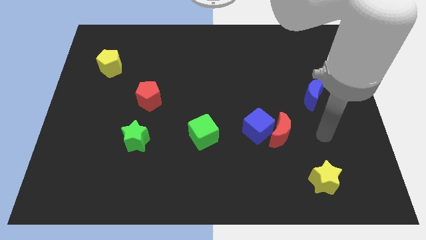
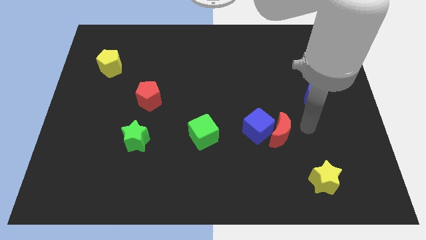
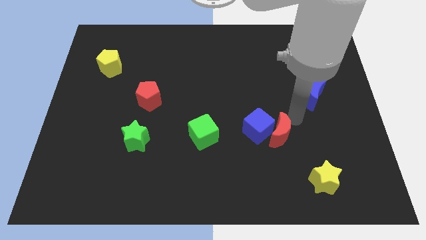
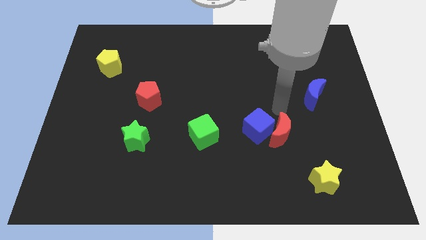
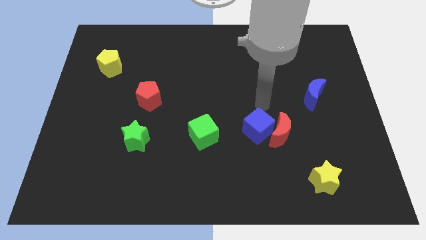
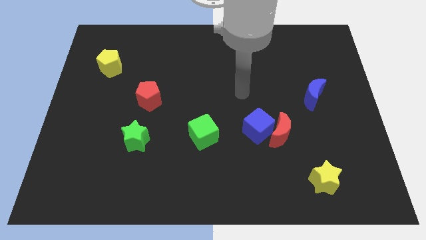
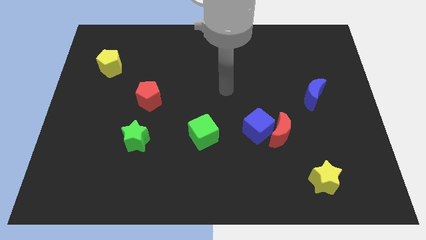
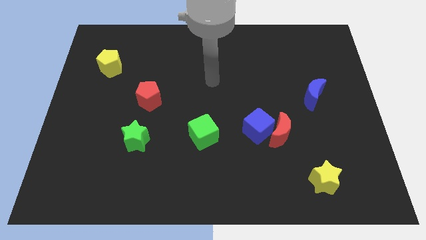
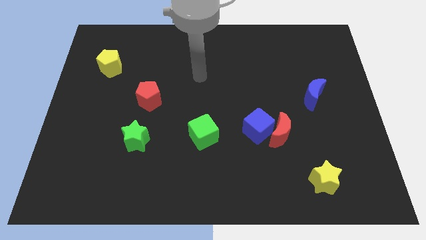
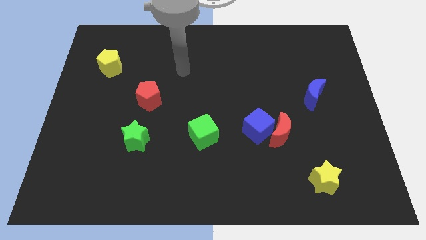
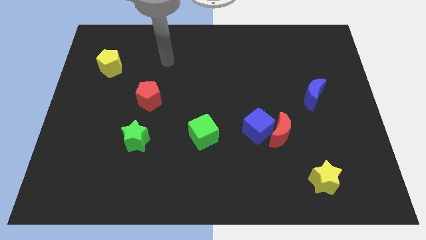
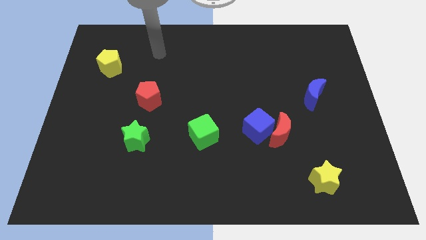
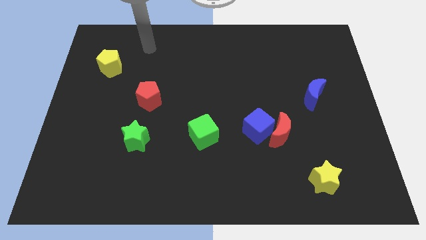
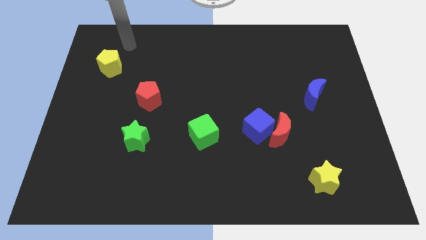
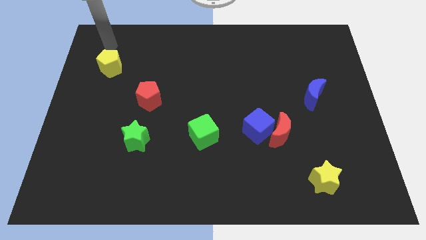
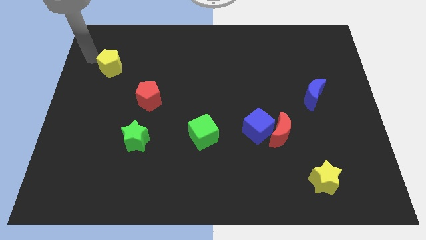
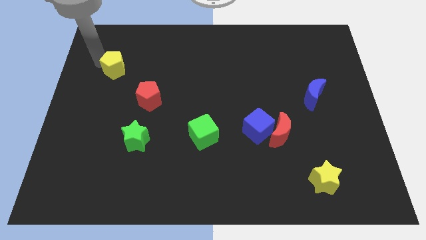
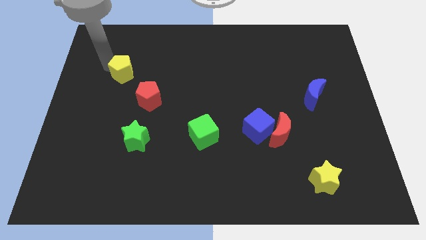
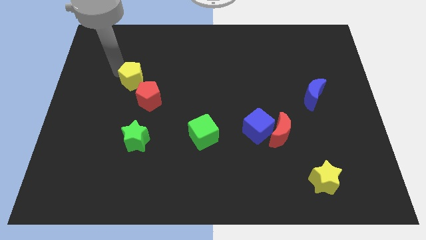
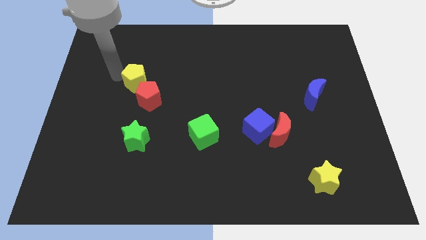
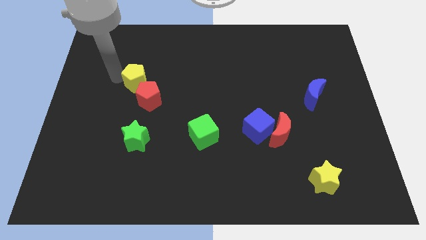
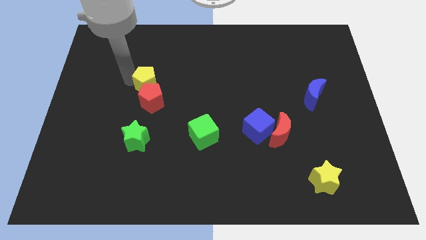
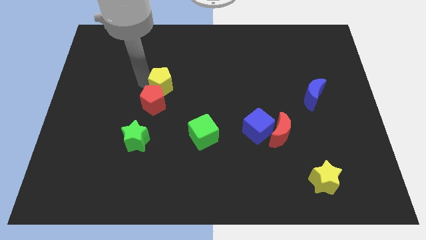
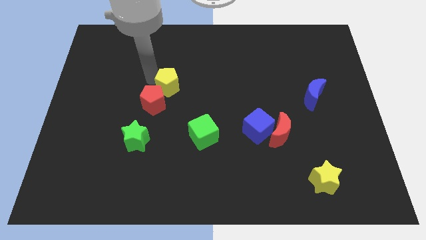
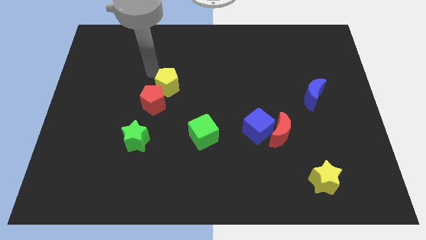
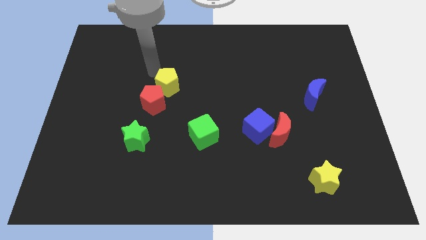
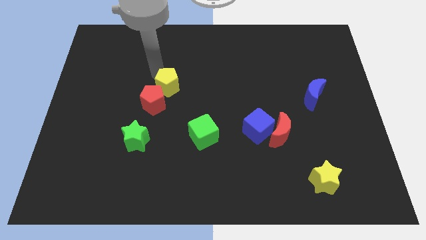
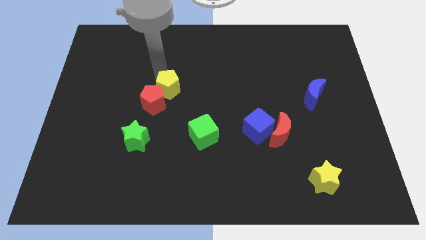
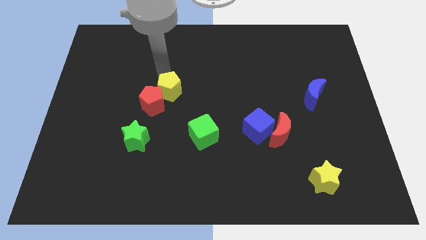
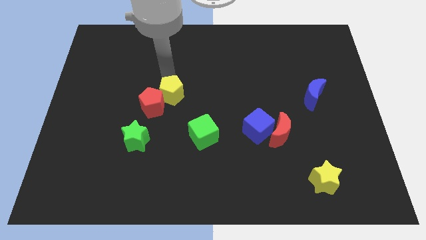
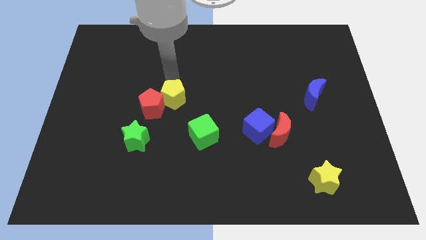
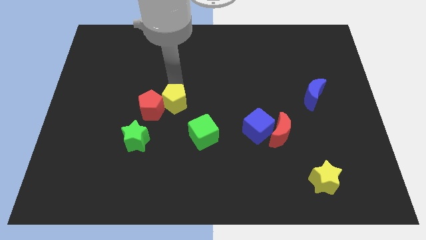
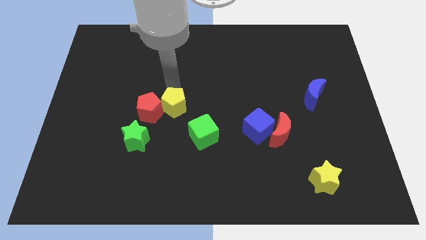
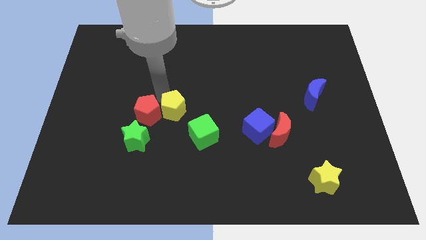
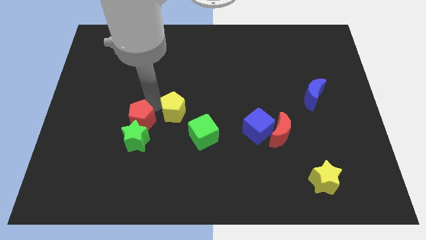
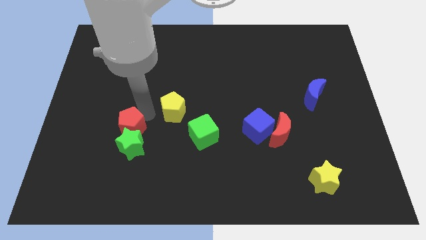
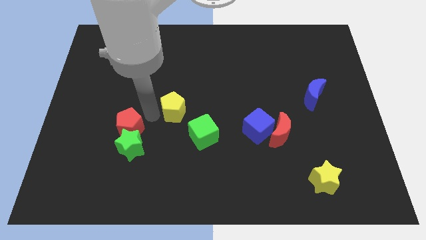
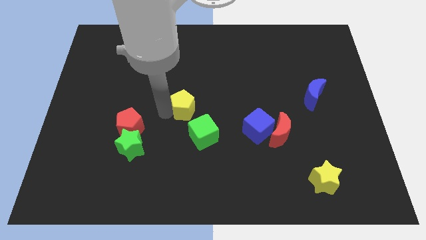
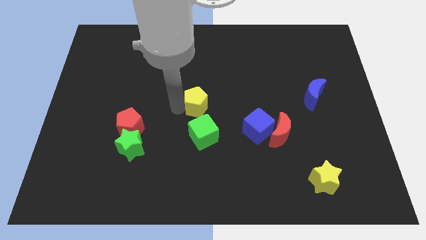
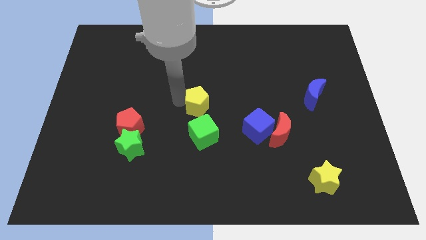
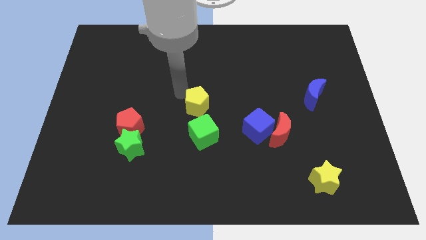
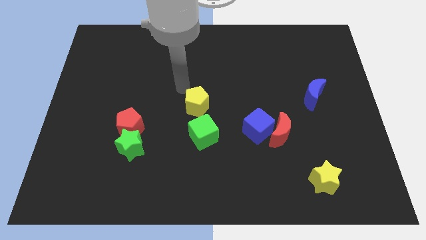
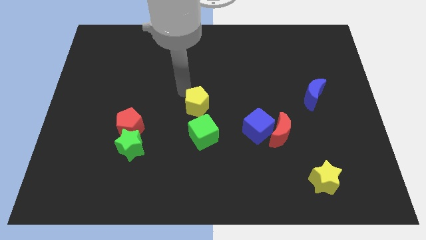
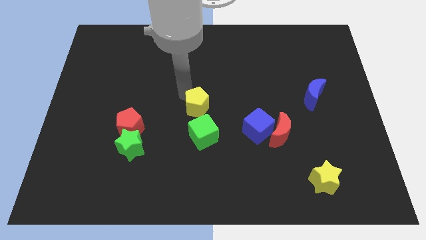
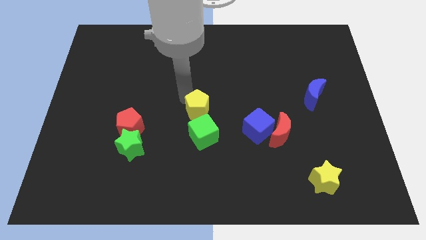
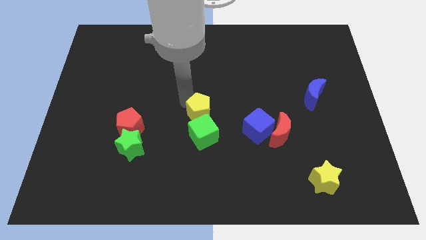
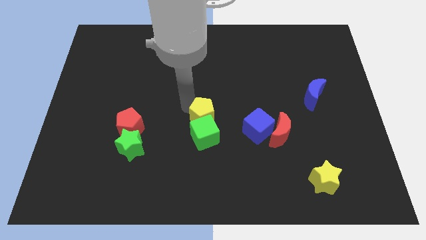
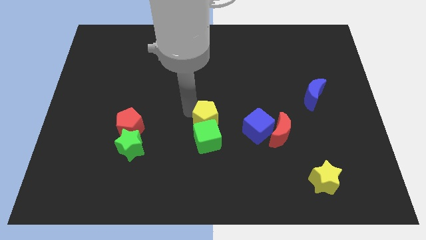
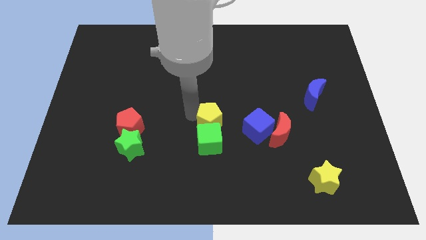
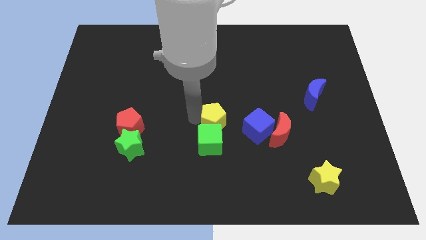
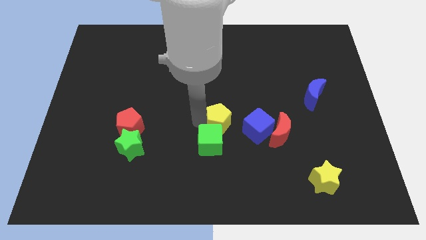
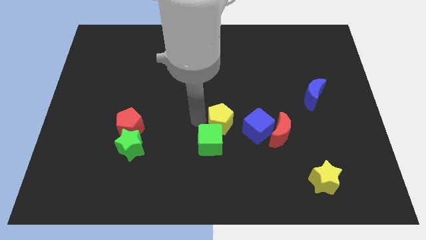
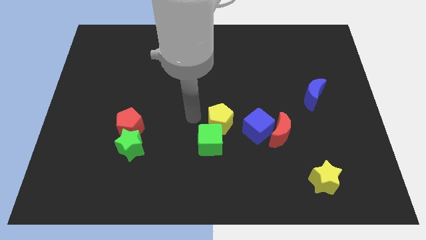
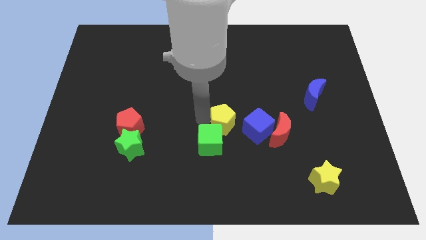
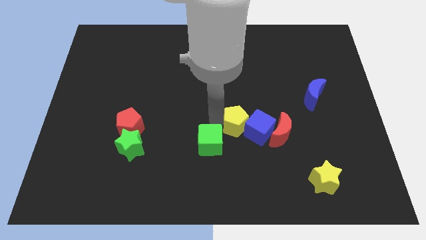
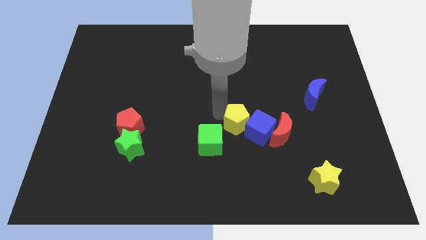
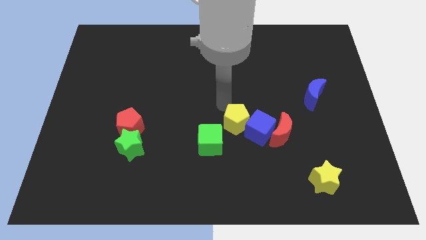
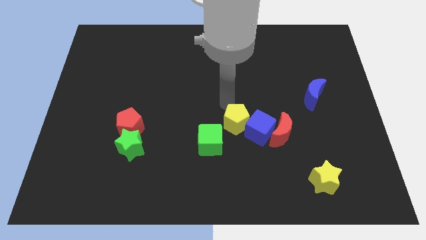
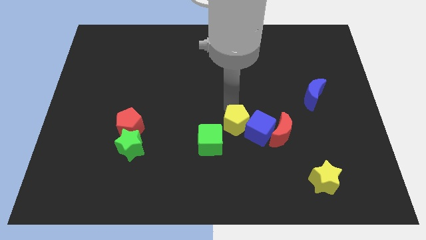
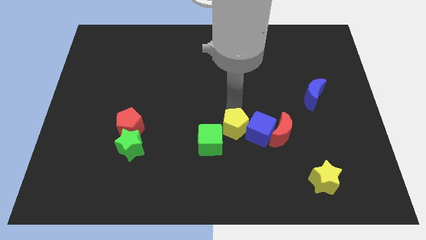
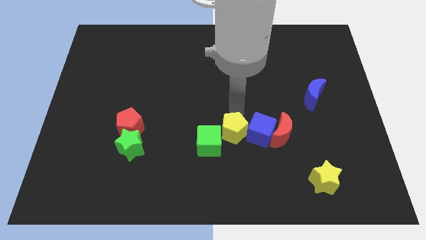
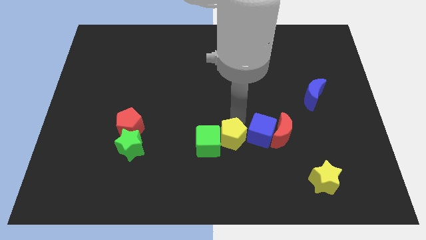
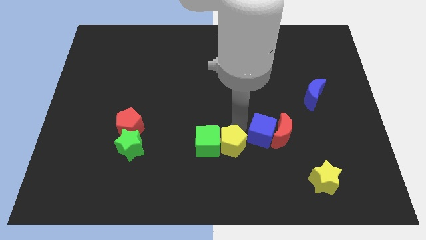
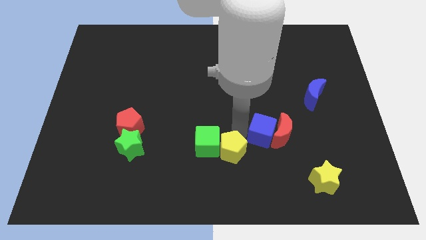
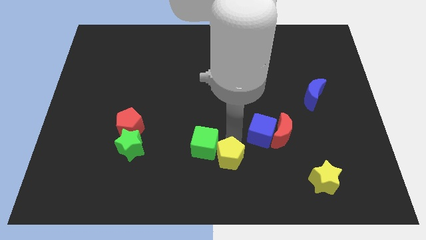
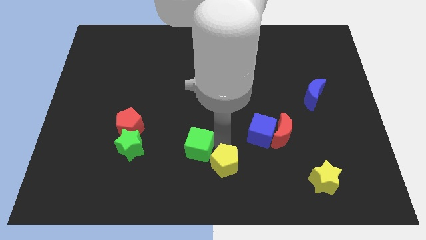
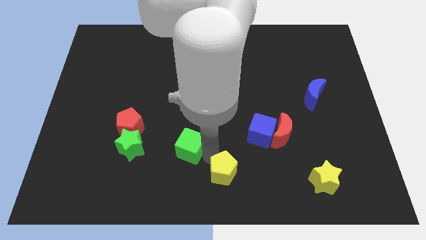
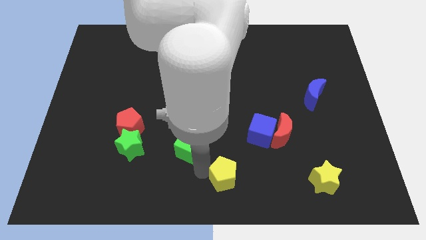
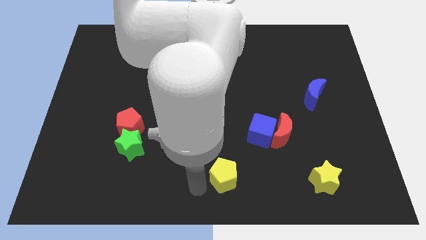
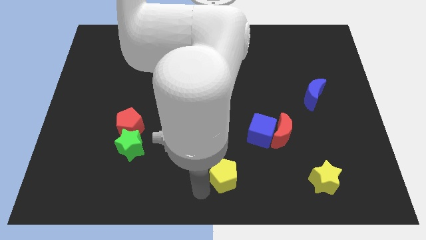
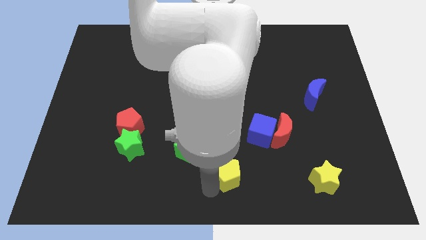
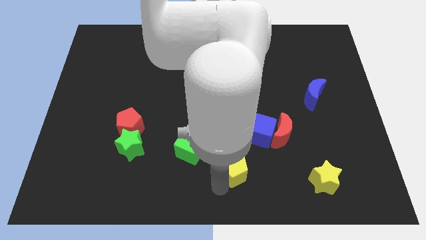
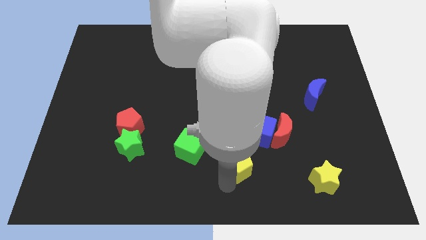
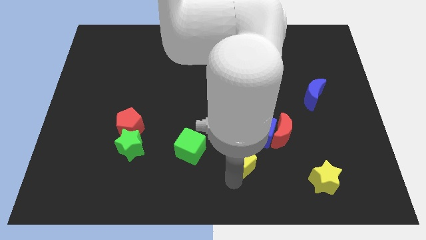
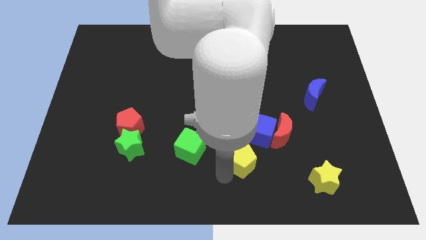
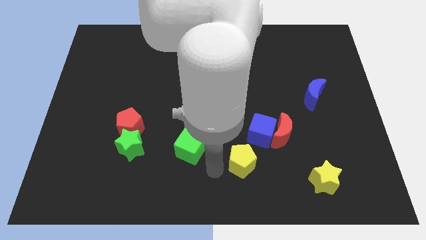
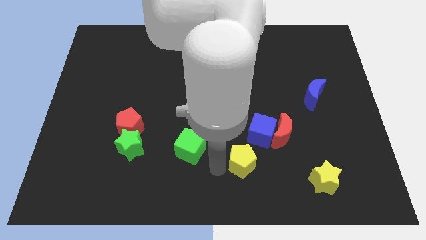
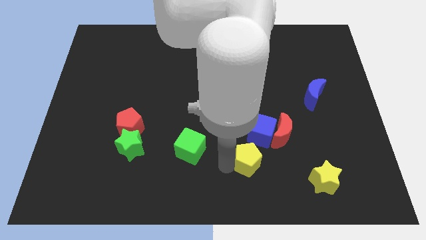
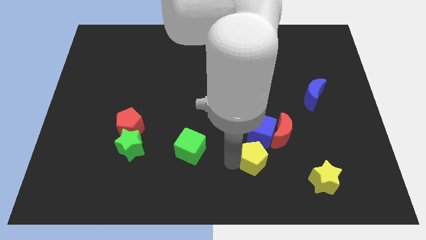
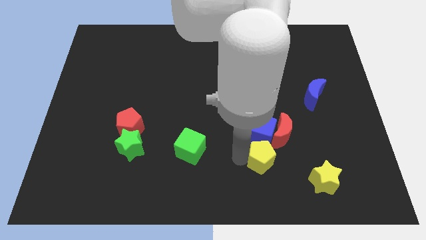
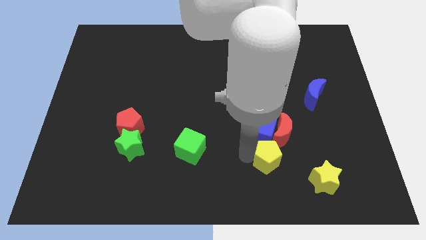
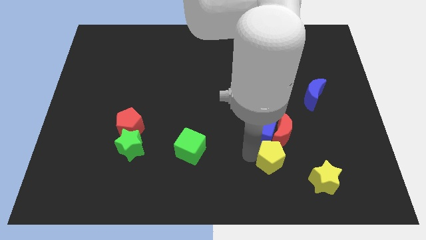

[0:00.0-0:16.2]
push the yellow pentagon to the top left of the yellow star
